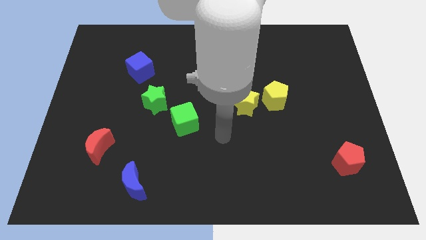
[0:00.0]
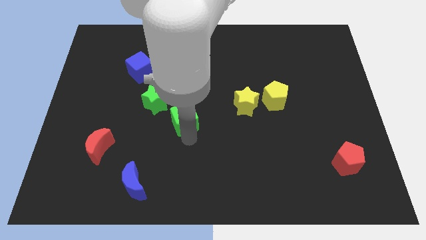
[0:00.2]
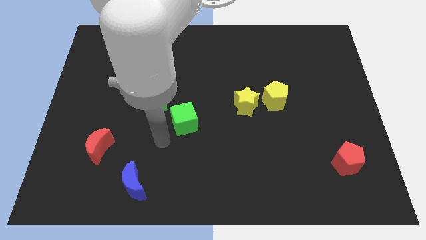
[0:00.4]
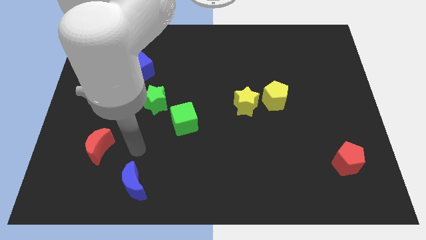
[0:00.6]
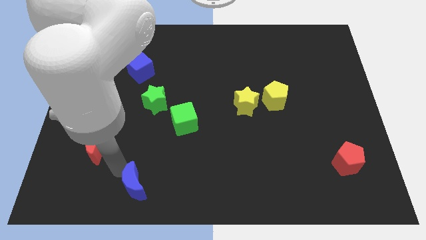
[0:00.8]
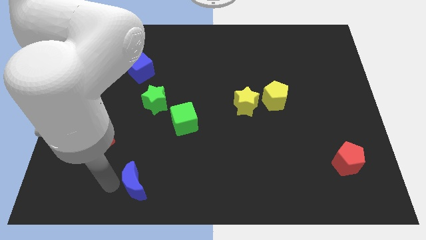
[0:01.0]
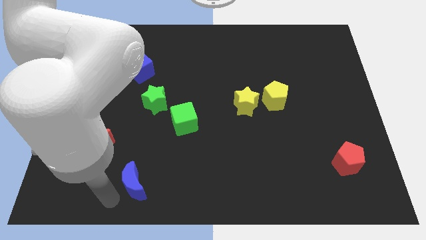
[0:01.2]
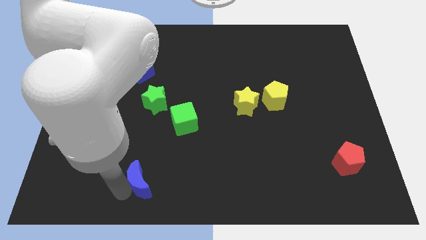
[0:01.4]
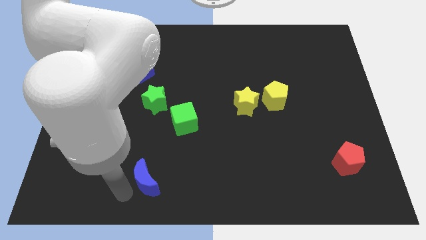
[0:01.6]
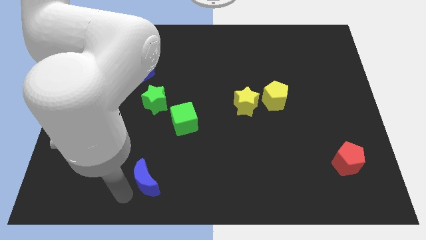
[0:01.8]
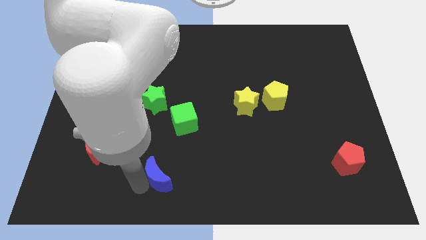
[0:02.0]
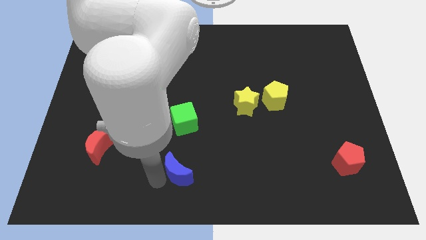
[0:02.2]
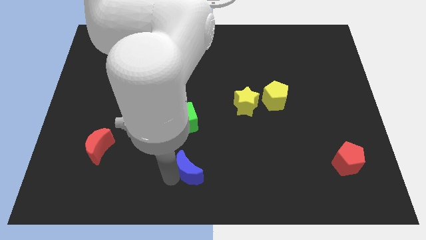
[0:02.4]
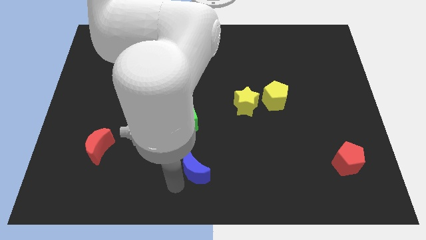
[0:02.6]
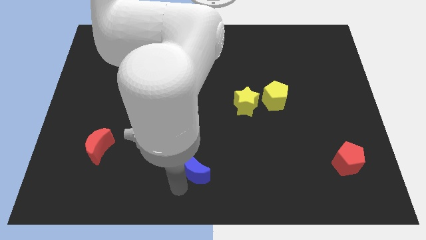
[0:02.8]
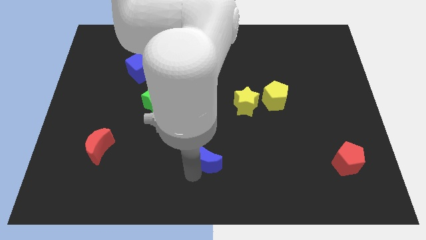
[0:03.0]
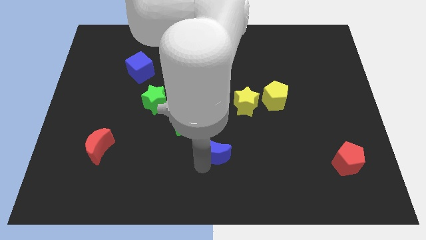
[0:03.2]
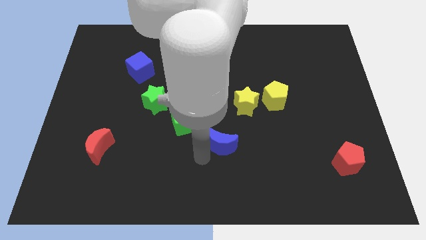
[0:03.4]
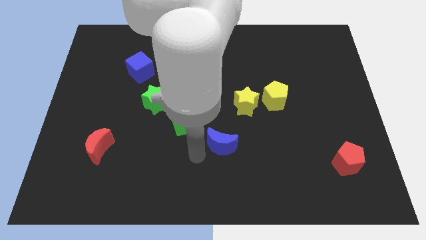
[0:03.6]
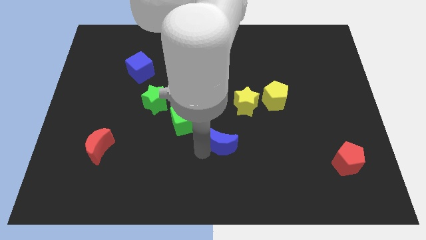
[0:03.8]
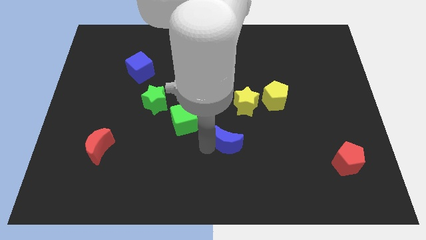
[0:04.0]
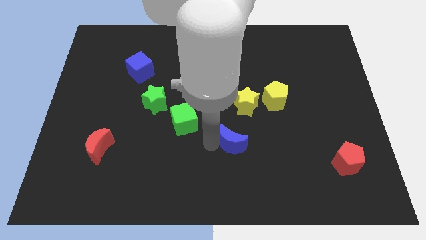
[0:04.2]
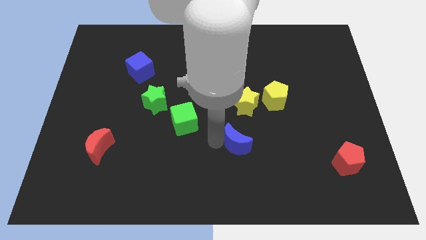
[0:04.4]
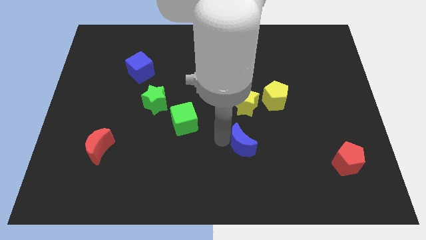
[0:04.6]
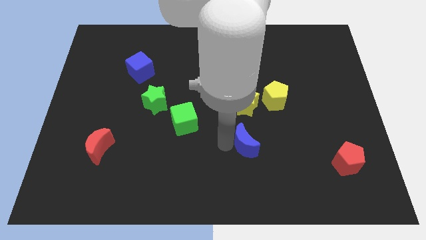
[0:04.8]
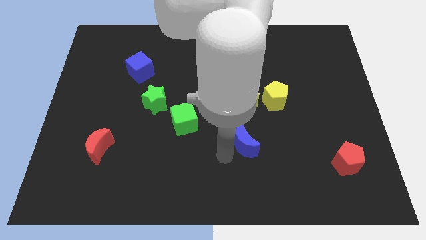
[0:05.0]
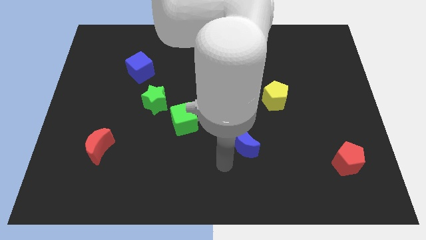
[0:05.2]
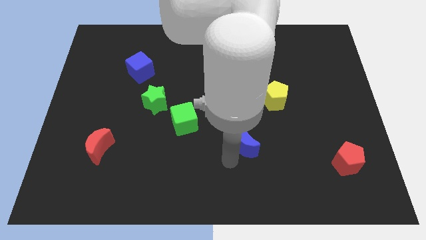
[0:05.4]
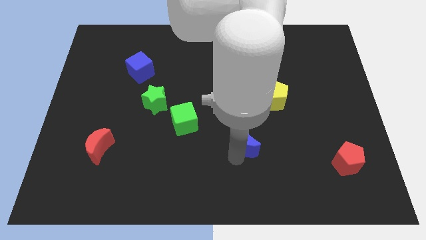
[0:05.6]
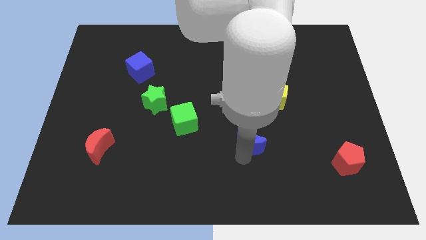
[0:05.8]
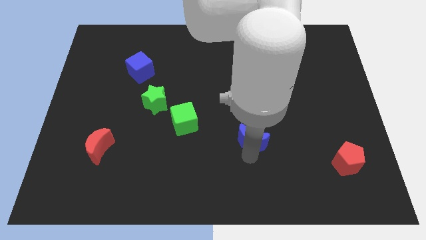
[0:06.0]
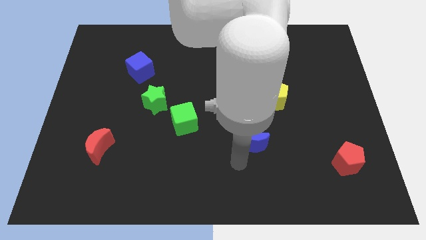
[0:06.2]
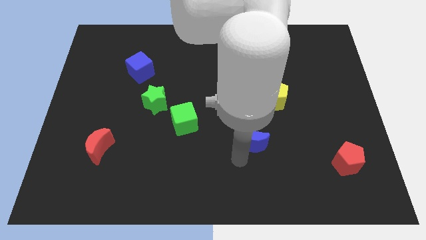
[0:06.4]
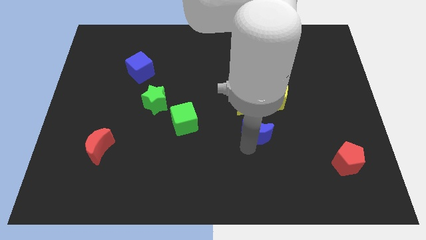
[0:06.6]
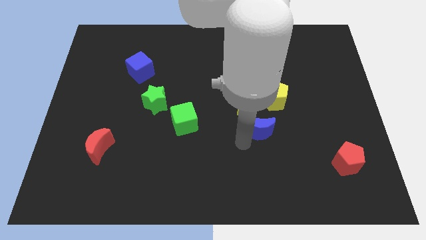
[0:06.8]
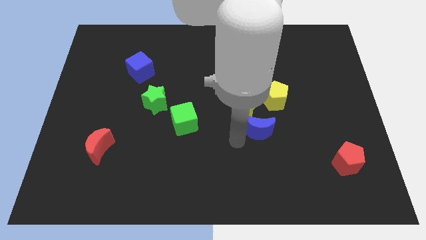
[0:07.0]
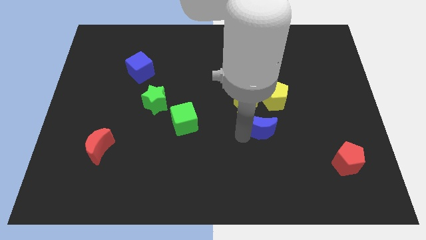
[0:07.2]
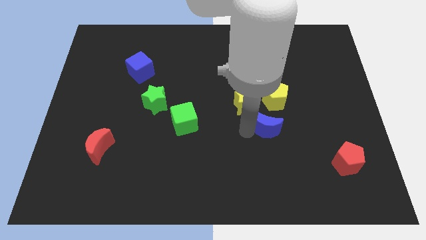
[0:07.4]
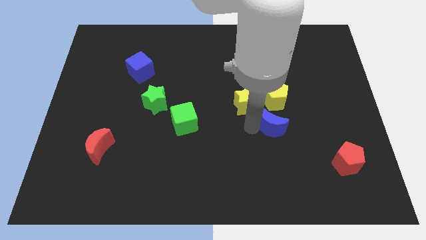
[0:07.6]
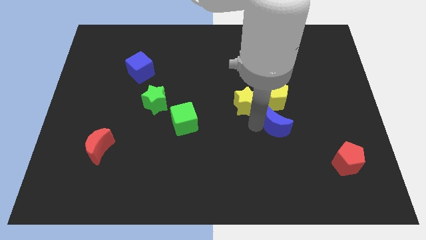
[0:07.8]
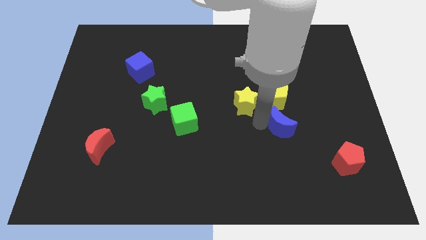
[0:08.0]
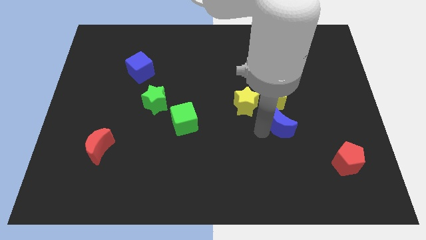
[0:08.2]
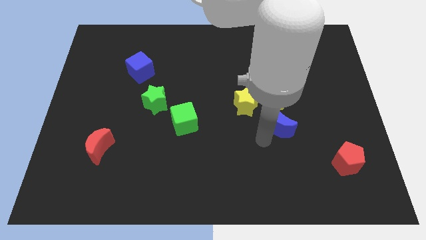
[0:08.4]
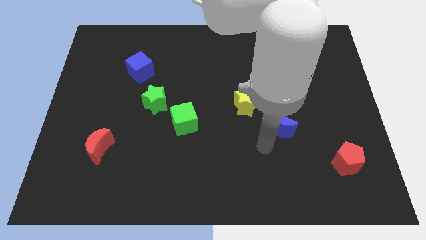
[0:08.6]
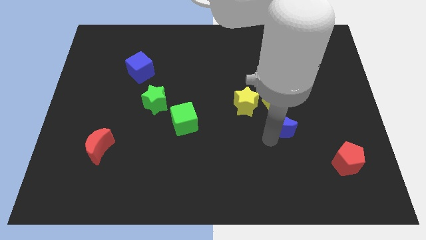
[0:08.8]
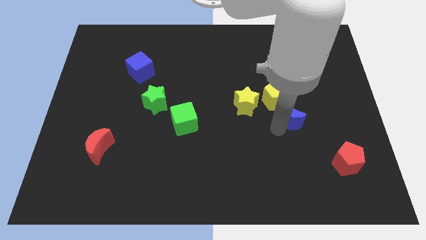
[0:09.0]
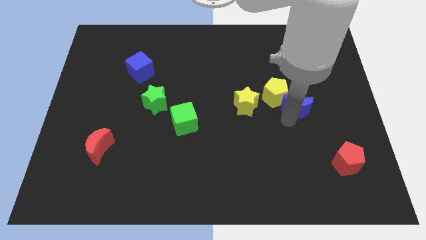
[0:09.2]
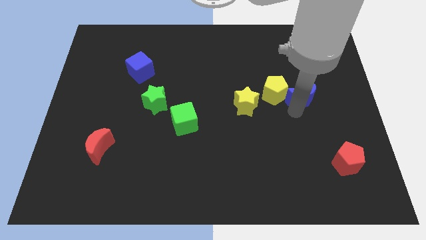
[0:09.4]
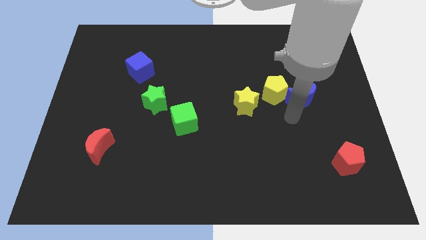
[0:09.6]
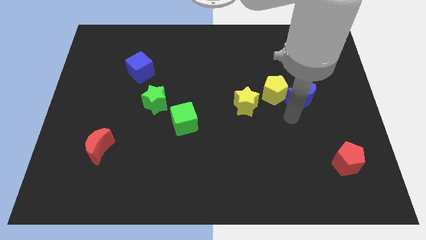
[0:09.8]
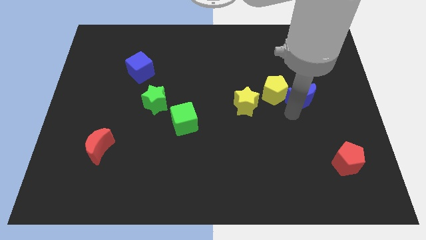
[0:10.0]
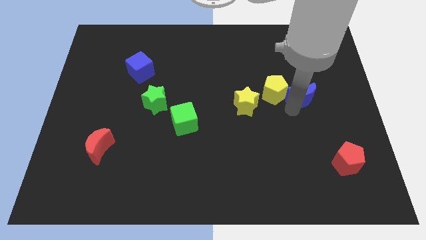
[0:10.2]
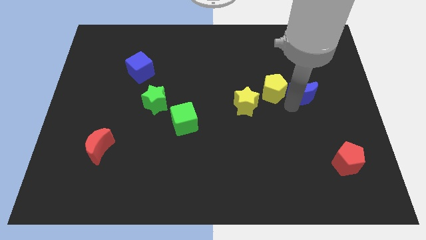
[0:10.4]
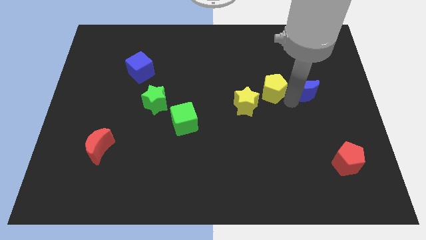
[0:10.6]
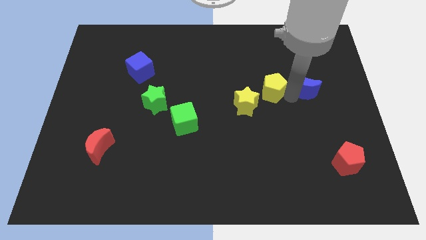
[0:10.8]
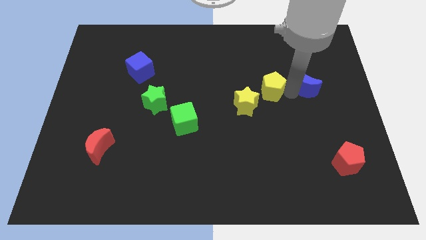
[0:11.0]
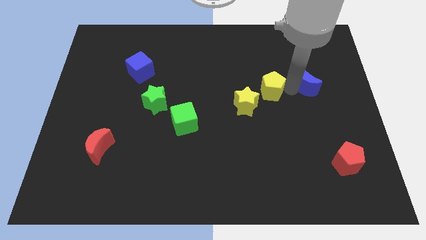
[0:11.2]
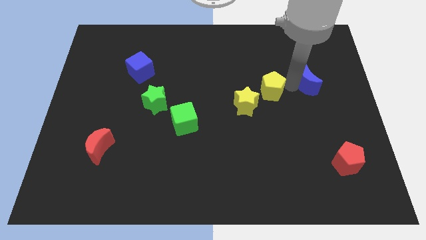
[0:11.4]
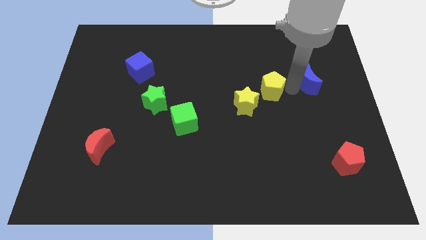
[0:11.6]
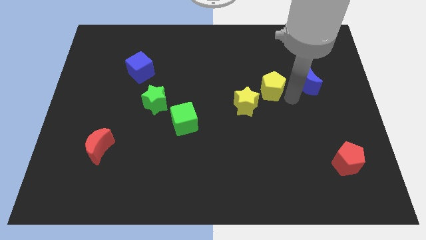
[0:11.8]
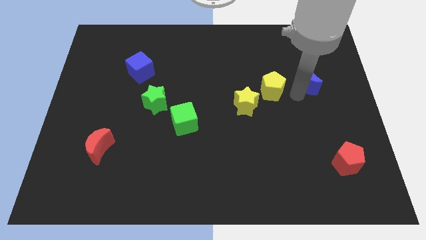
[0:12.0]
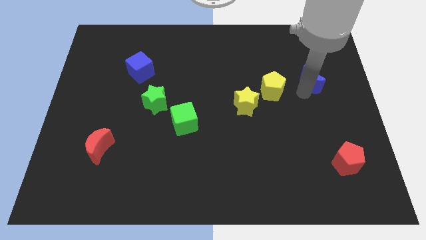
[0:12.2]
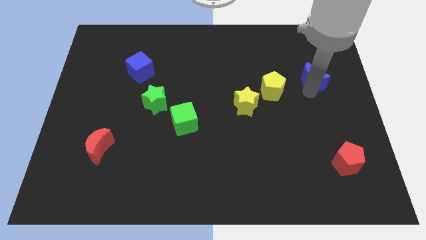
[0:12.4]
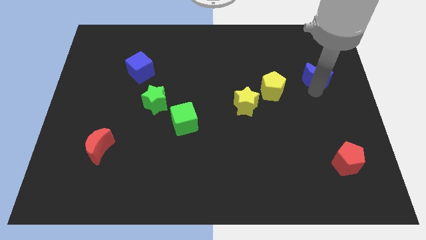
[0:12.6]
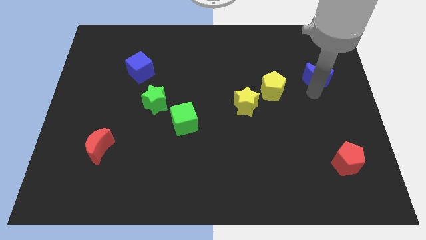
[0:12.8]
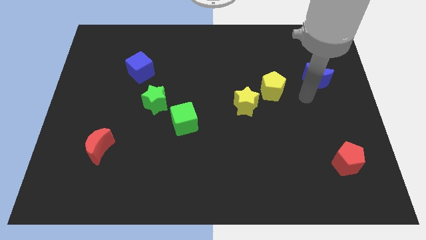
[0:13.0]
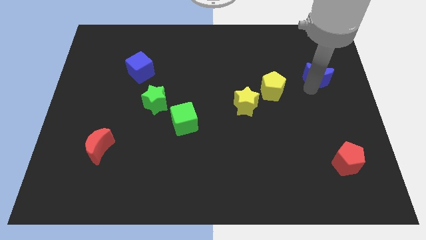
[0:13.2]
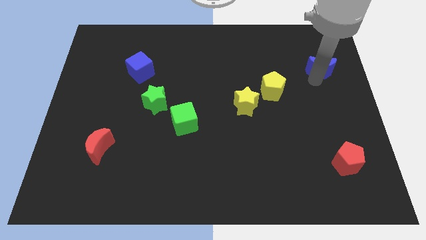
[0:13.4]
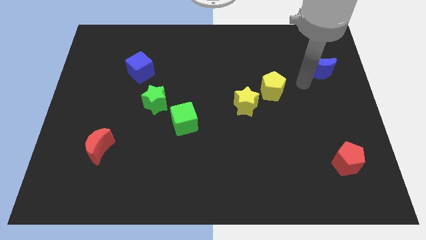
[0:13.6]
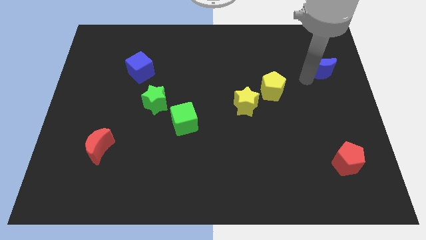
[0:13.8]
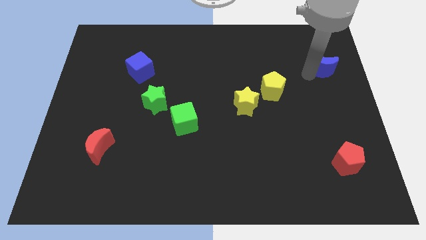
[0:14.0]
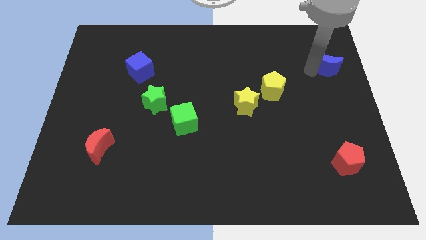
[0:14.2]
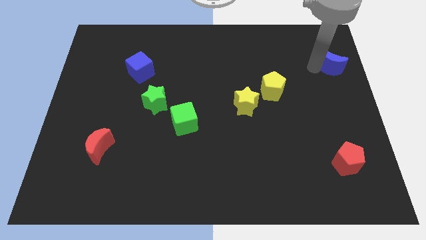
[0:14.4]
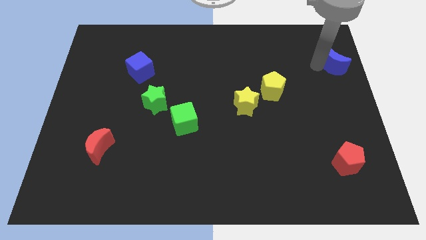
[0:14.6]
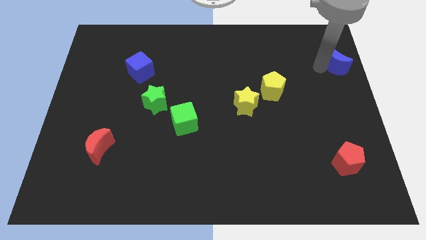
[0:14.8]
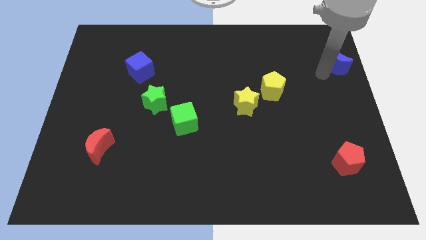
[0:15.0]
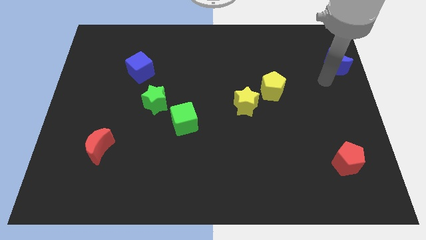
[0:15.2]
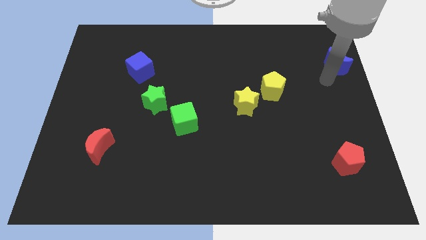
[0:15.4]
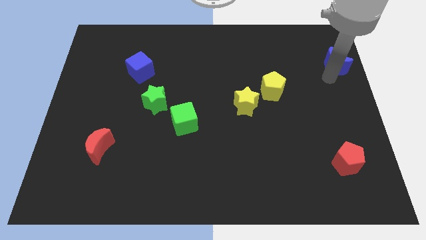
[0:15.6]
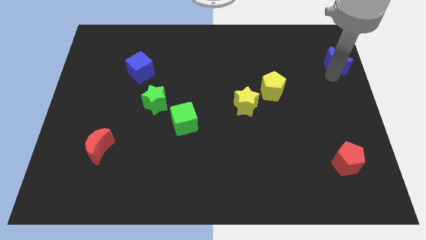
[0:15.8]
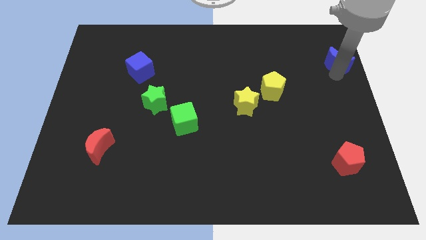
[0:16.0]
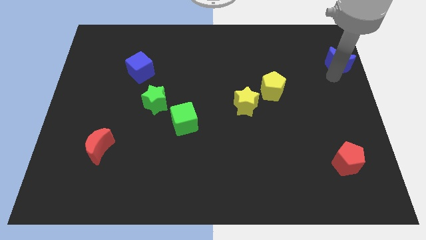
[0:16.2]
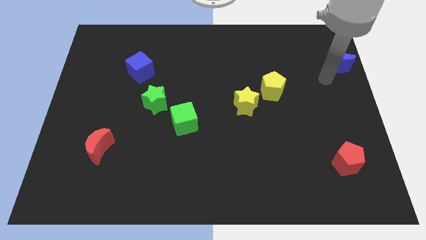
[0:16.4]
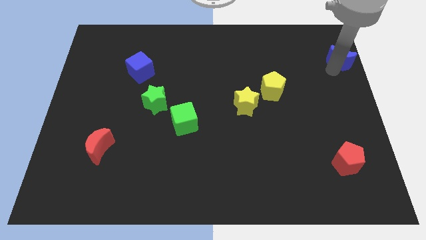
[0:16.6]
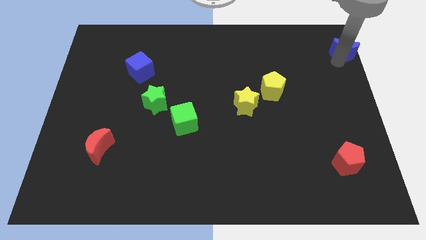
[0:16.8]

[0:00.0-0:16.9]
slide the blue moon to the top right of the board
